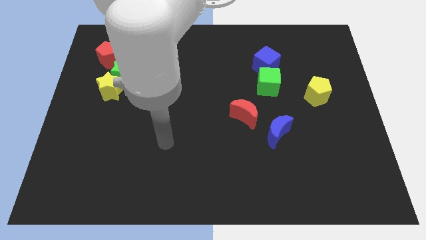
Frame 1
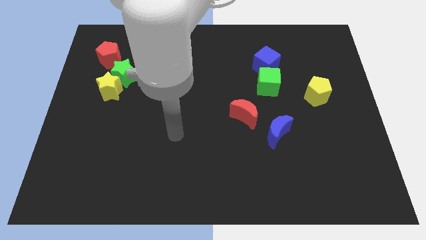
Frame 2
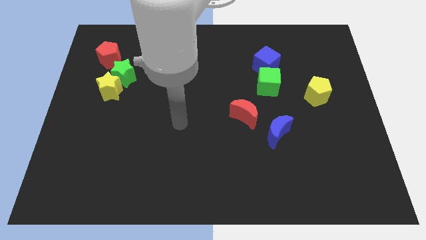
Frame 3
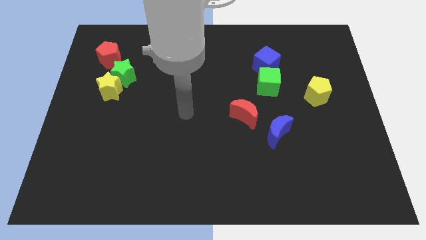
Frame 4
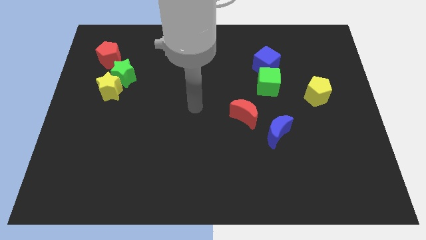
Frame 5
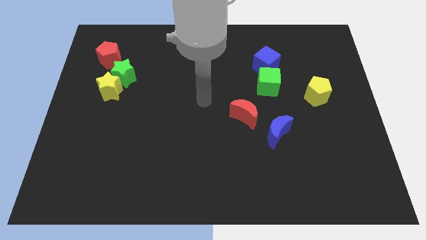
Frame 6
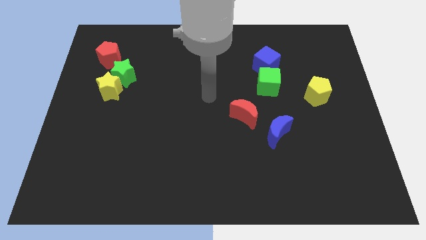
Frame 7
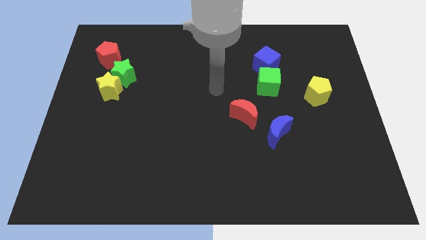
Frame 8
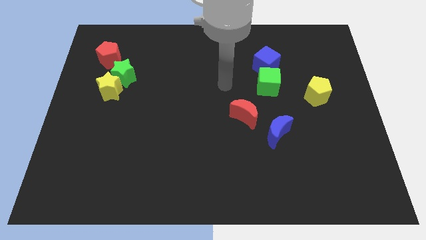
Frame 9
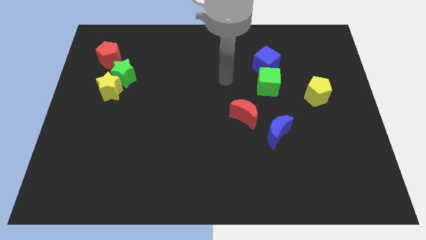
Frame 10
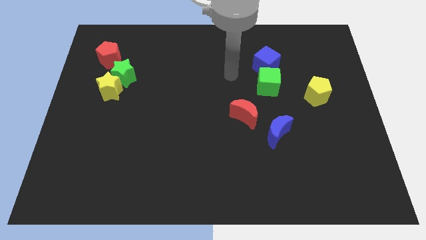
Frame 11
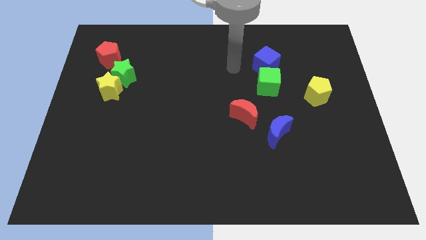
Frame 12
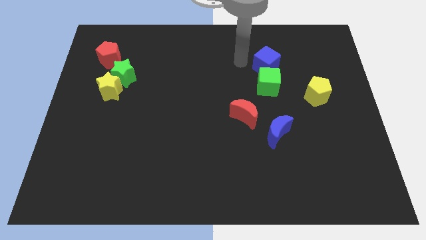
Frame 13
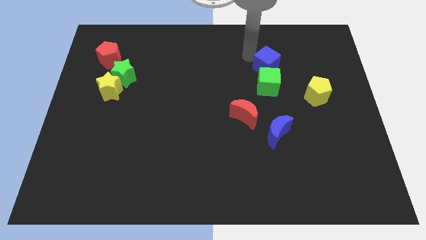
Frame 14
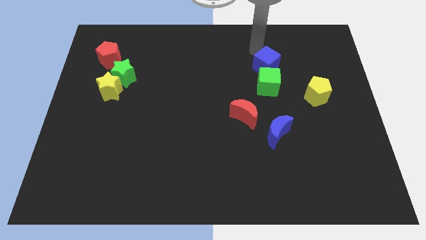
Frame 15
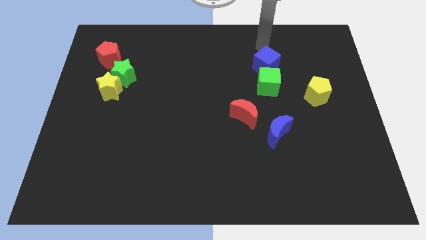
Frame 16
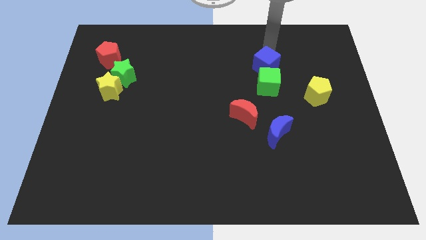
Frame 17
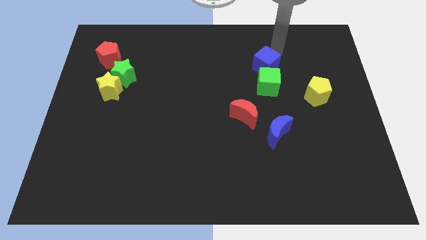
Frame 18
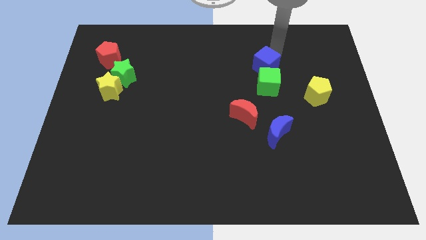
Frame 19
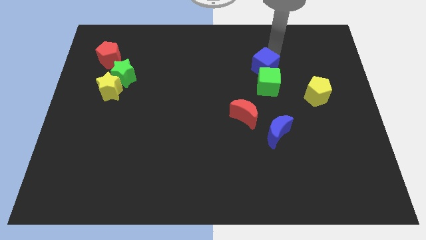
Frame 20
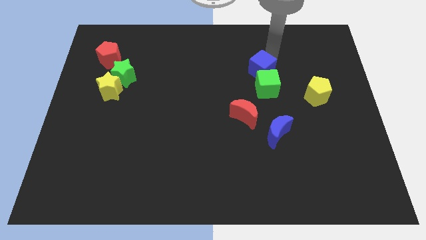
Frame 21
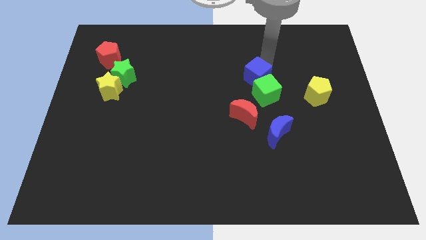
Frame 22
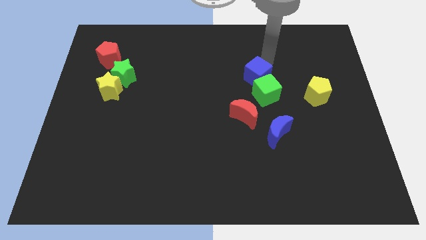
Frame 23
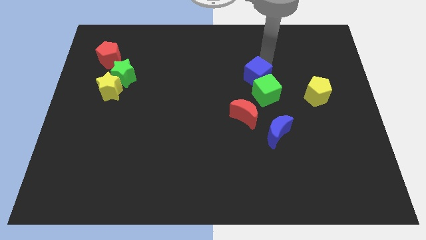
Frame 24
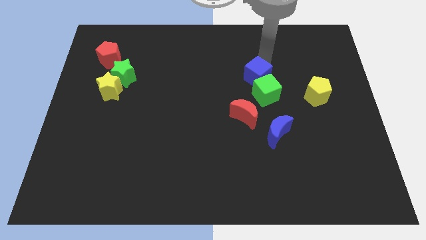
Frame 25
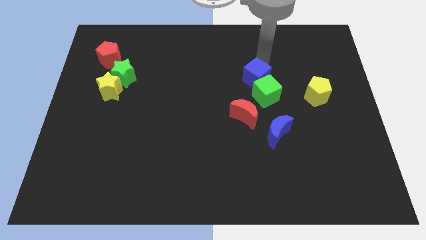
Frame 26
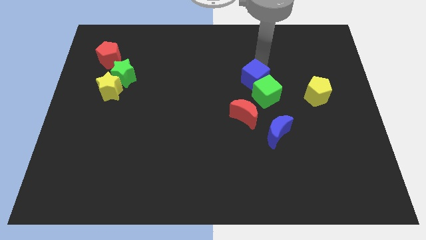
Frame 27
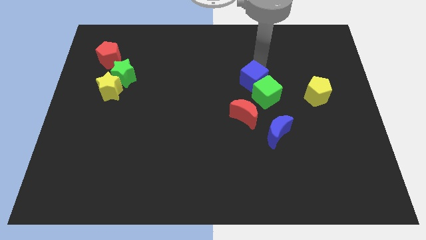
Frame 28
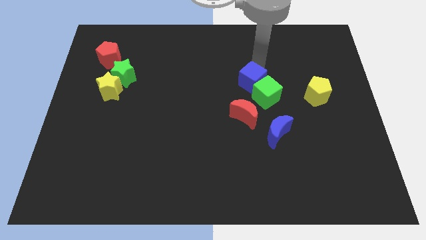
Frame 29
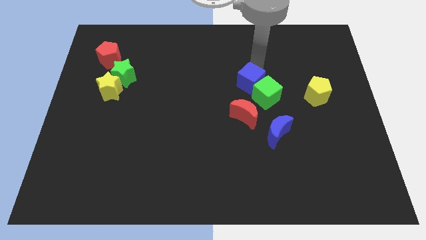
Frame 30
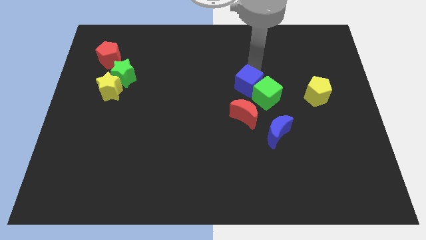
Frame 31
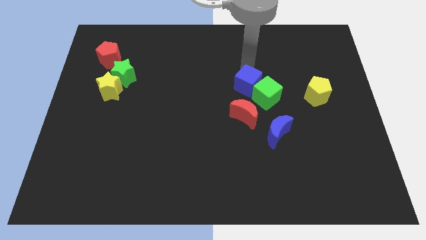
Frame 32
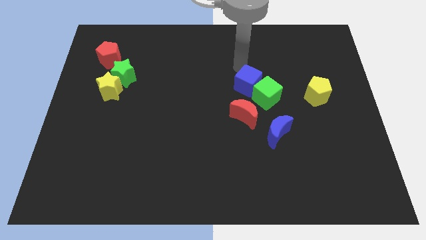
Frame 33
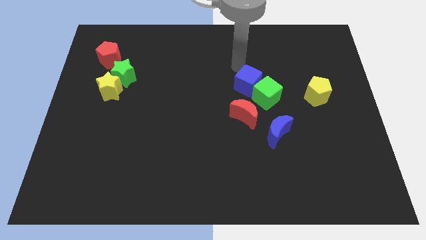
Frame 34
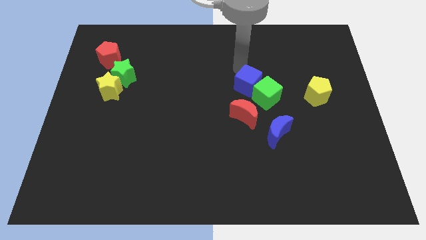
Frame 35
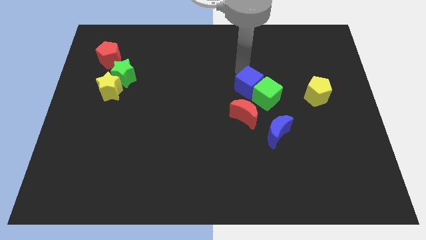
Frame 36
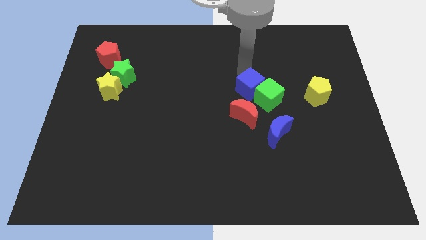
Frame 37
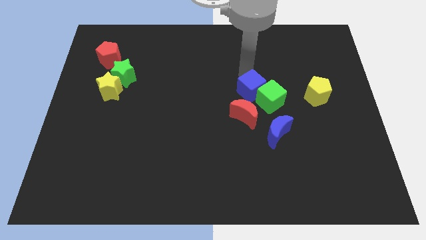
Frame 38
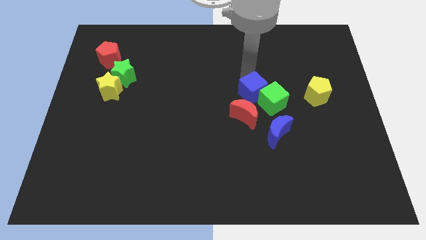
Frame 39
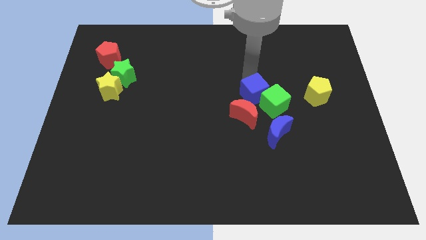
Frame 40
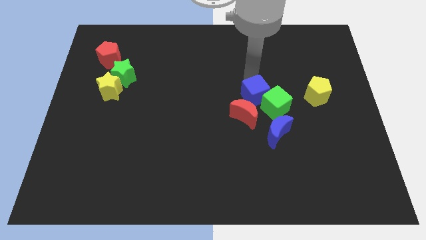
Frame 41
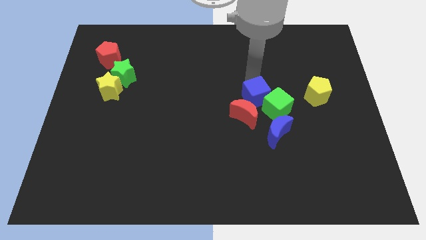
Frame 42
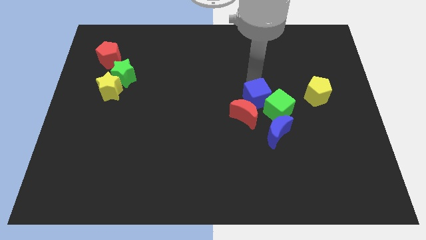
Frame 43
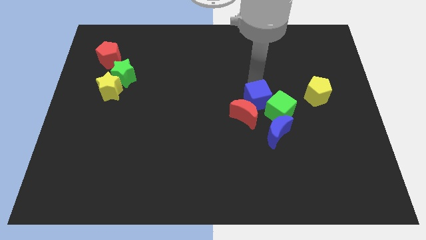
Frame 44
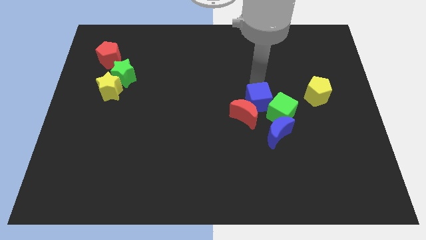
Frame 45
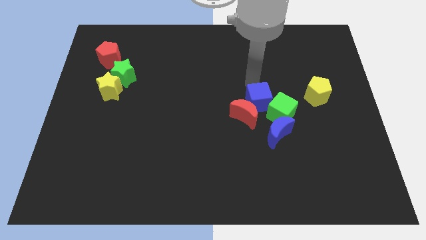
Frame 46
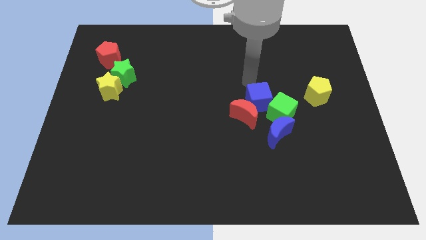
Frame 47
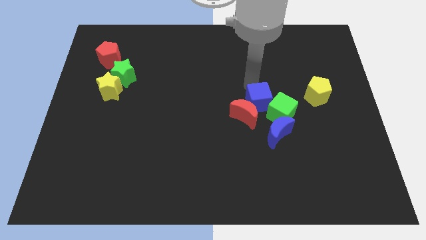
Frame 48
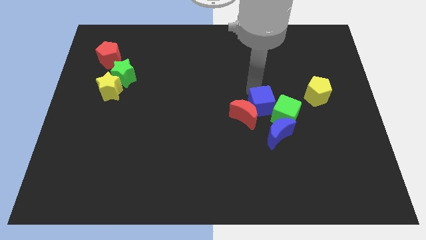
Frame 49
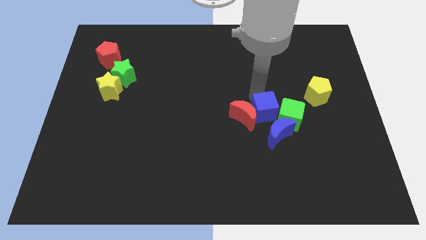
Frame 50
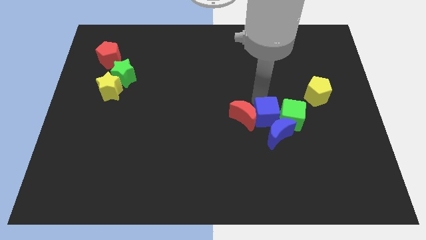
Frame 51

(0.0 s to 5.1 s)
put the blue cube next to the blue moon

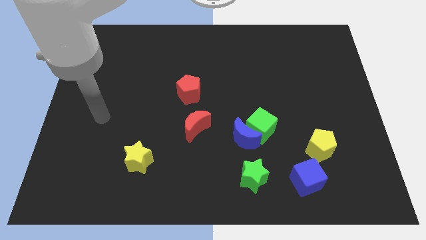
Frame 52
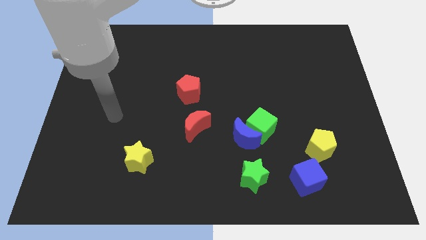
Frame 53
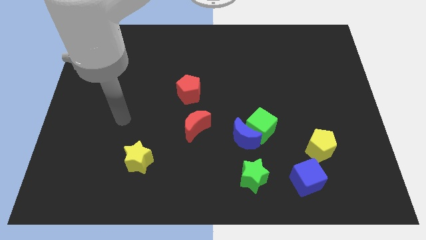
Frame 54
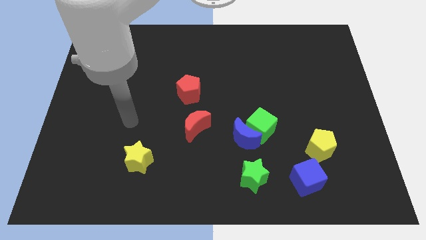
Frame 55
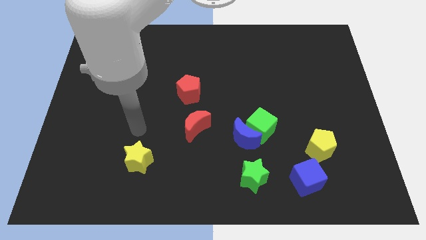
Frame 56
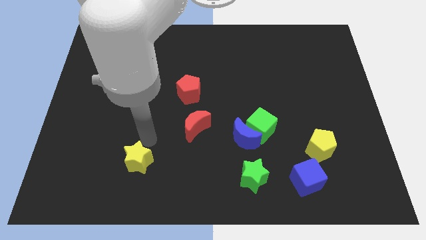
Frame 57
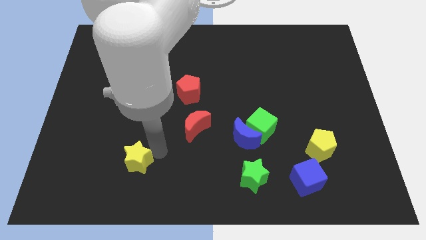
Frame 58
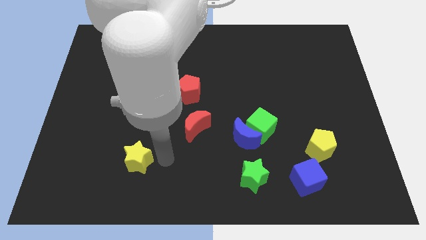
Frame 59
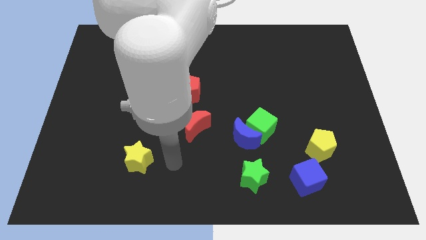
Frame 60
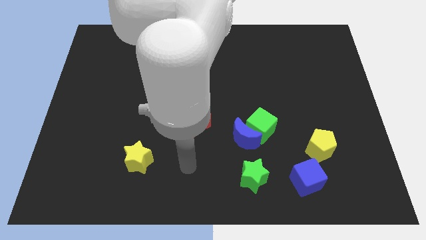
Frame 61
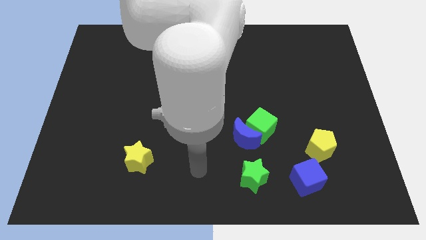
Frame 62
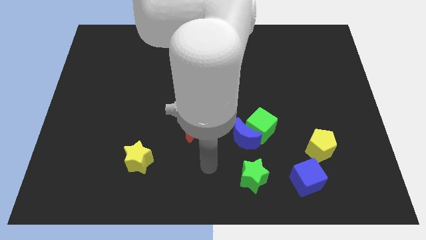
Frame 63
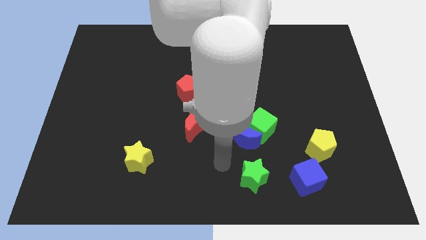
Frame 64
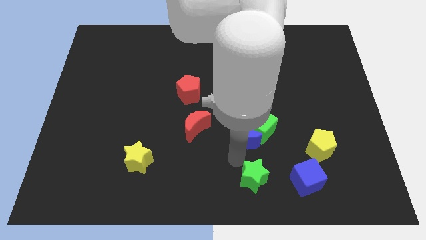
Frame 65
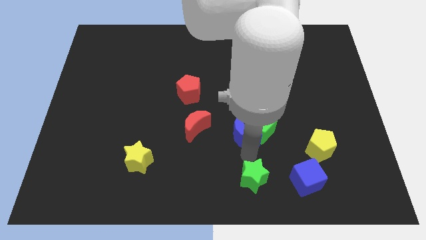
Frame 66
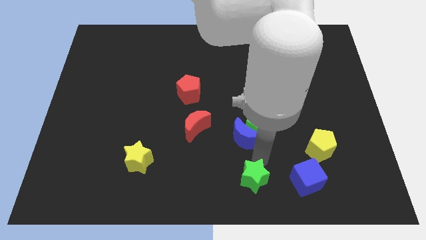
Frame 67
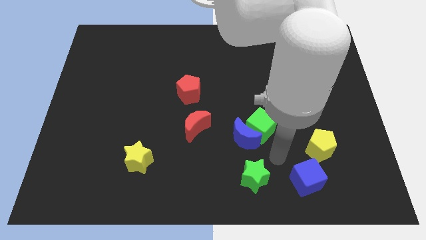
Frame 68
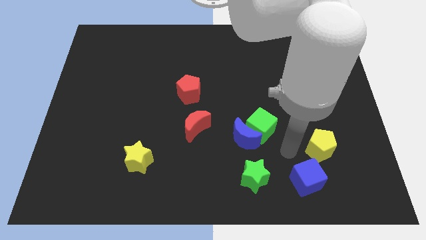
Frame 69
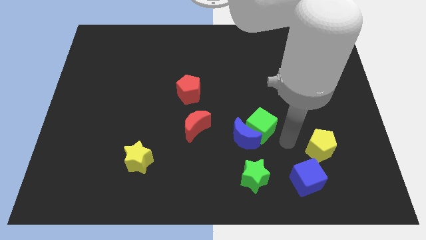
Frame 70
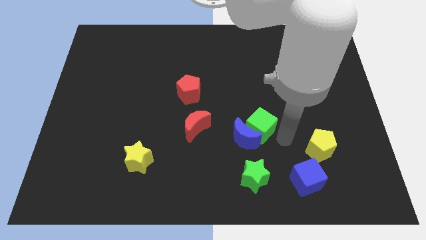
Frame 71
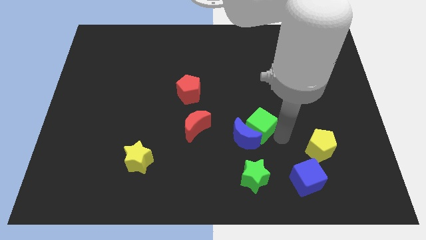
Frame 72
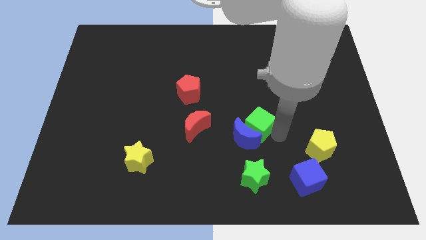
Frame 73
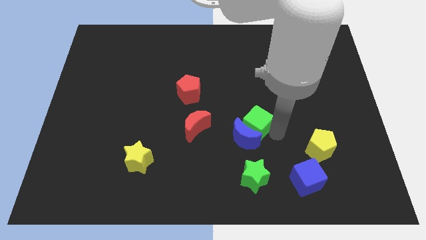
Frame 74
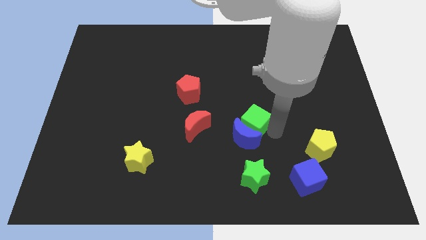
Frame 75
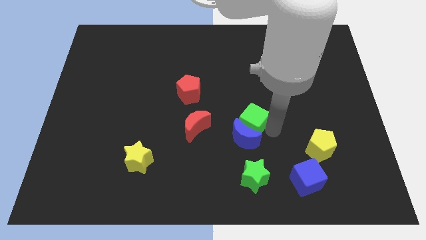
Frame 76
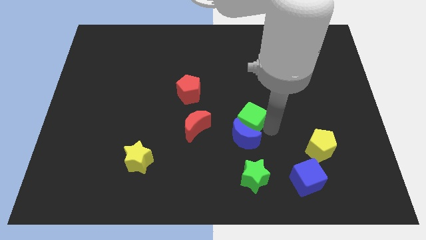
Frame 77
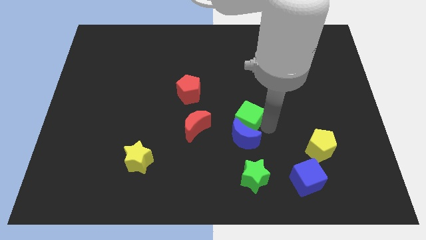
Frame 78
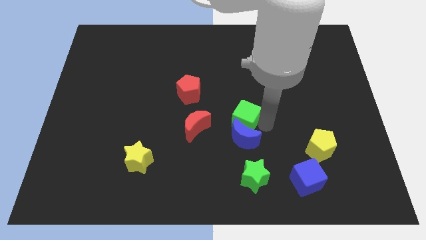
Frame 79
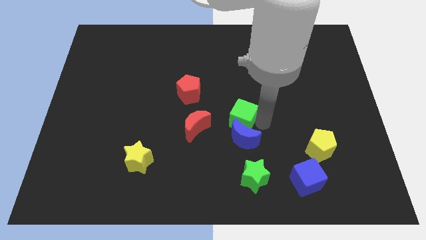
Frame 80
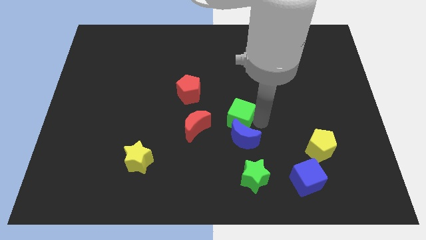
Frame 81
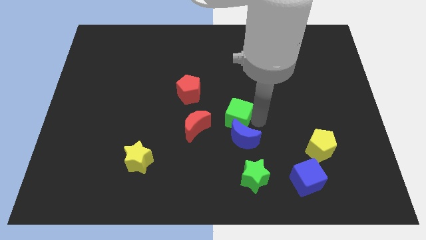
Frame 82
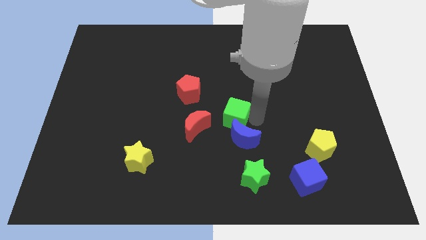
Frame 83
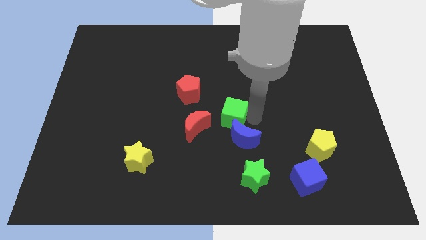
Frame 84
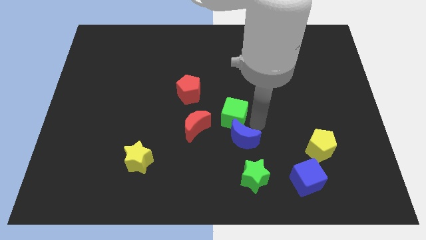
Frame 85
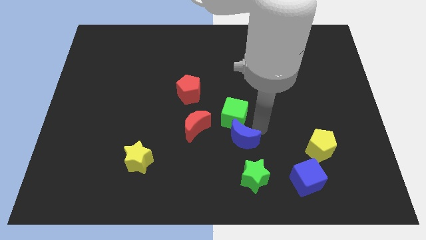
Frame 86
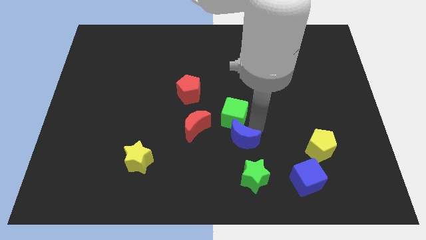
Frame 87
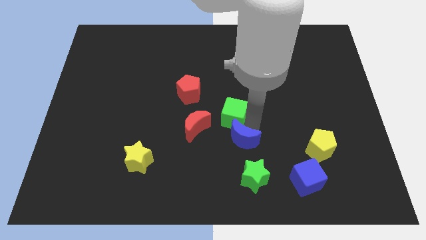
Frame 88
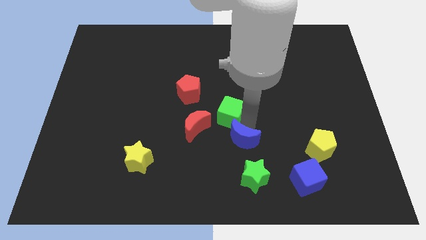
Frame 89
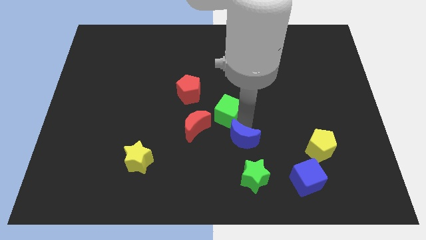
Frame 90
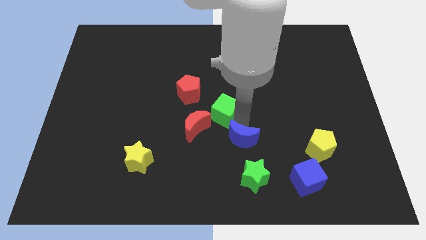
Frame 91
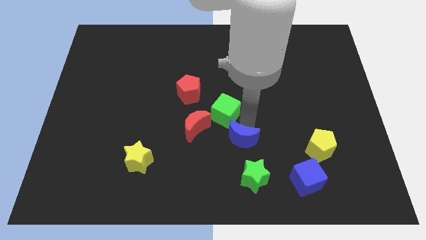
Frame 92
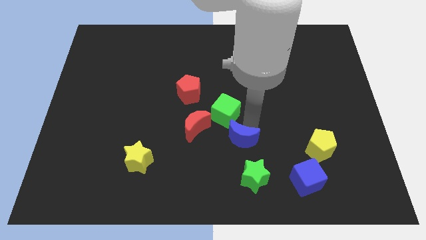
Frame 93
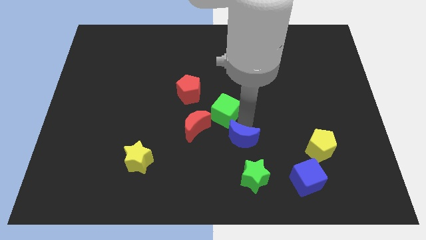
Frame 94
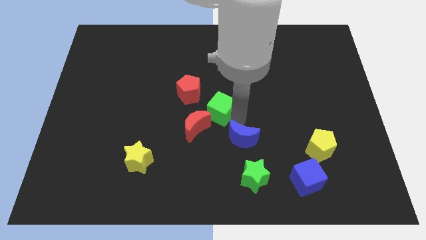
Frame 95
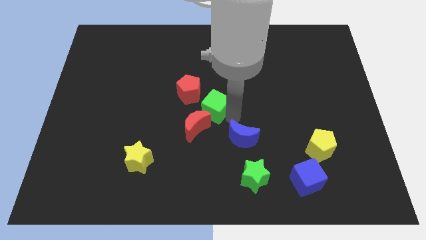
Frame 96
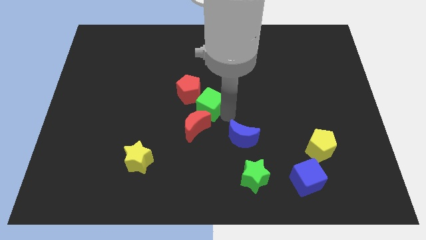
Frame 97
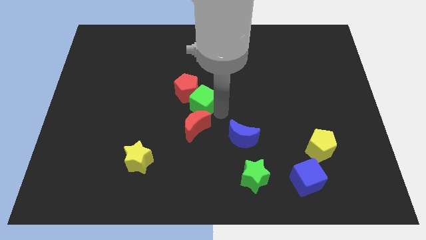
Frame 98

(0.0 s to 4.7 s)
slide the green cube to the red pentagon
